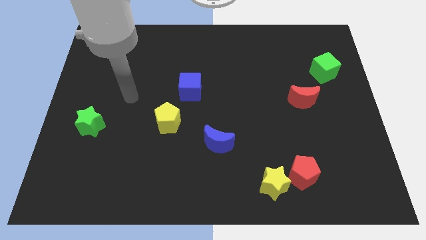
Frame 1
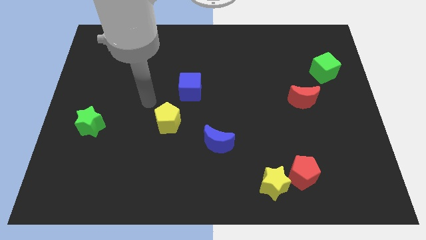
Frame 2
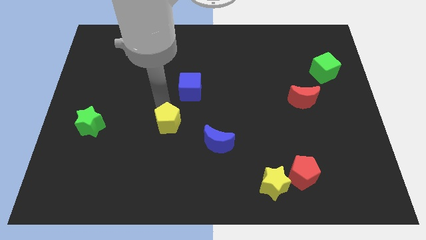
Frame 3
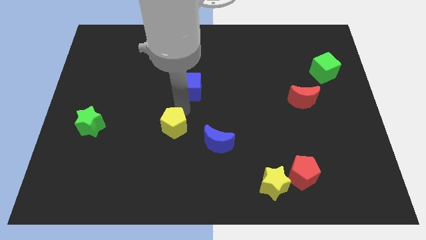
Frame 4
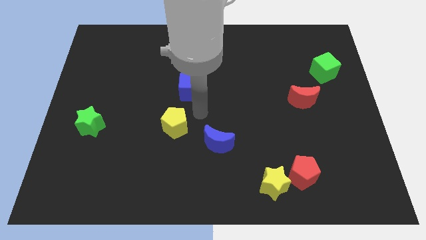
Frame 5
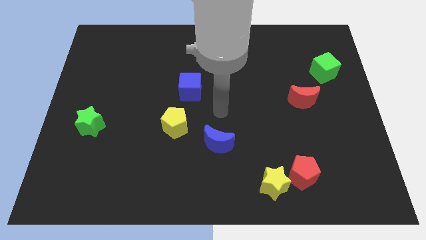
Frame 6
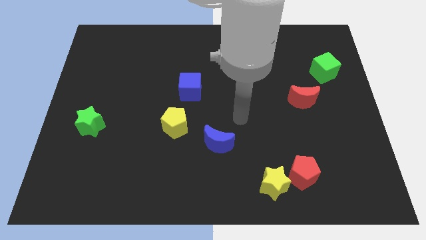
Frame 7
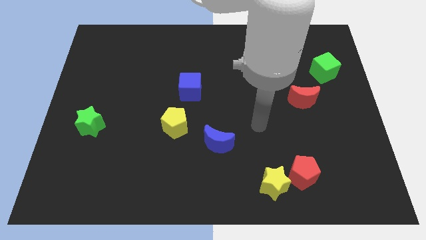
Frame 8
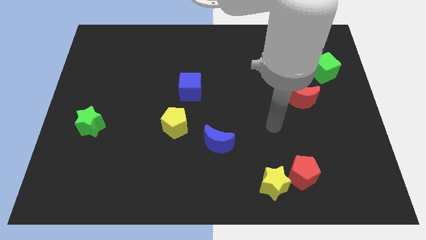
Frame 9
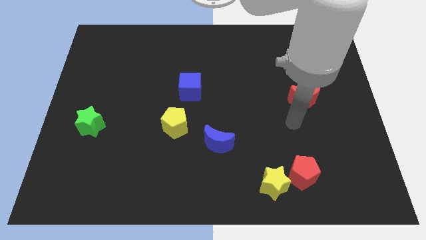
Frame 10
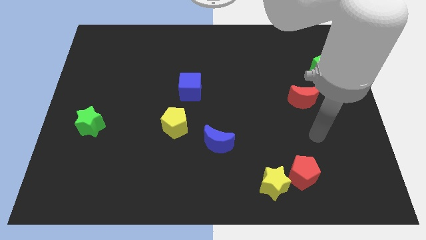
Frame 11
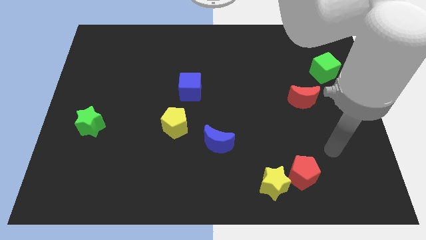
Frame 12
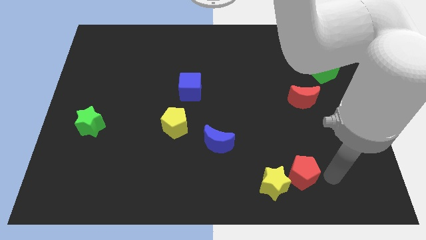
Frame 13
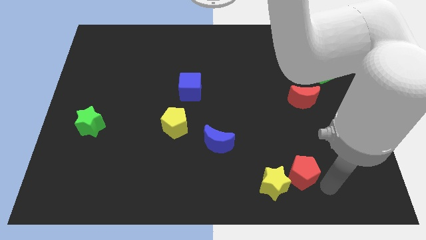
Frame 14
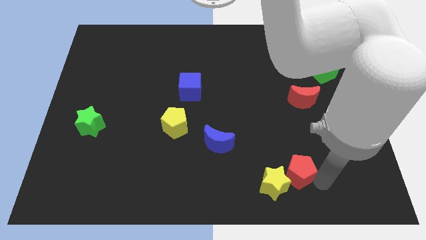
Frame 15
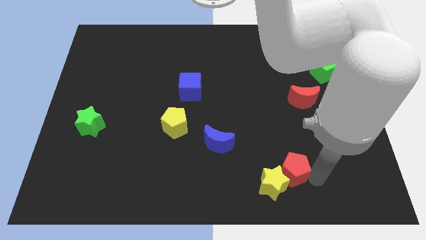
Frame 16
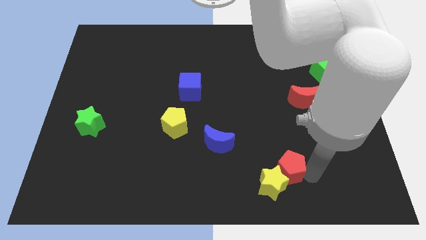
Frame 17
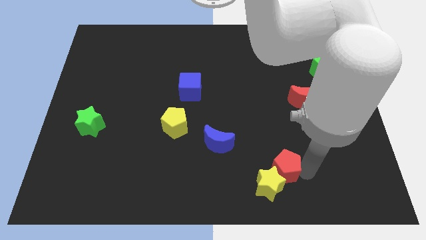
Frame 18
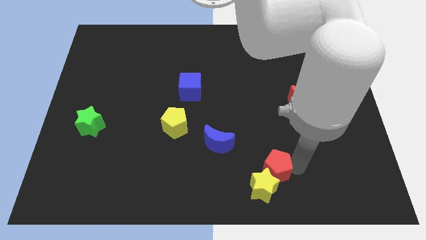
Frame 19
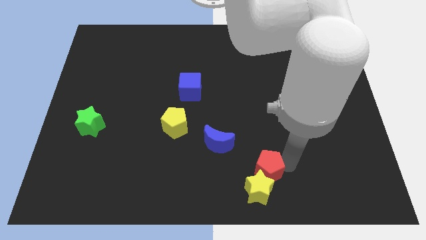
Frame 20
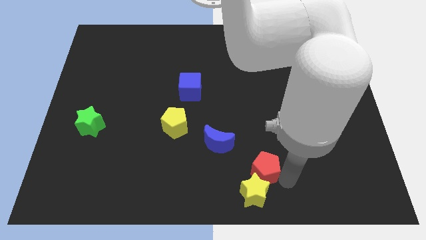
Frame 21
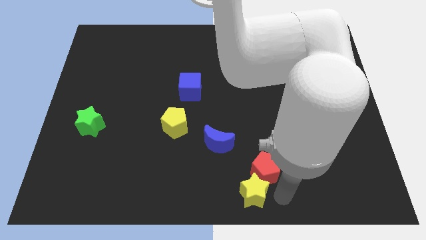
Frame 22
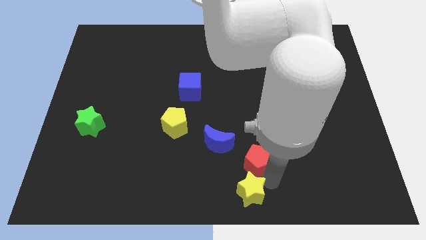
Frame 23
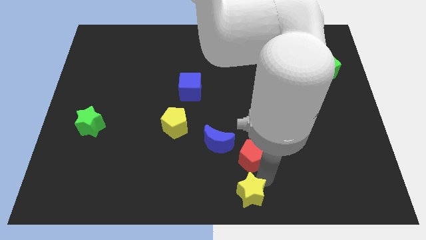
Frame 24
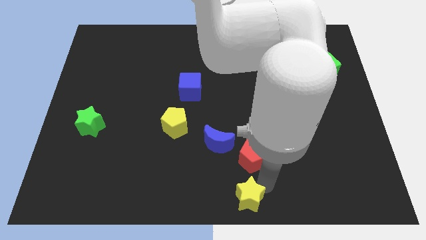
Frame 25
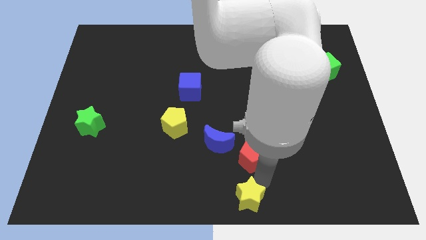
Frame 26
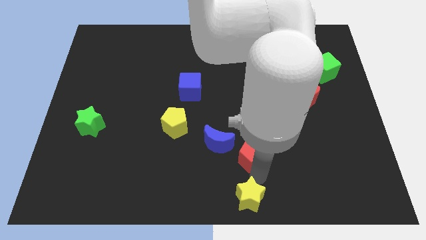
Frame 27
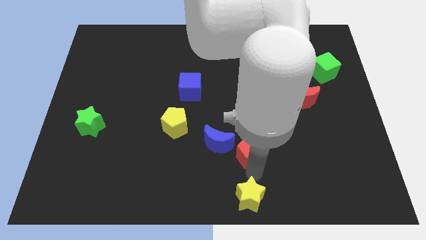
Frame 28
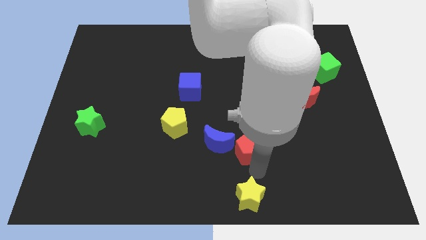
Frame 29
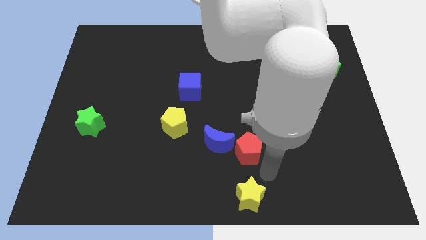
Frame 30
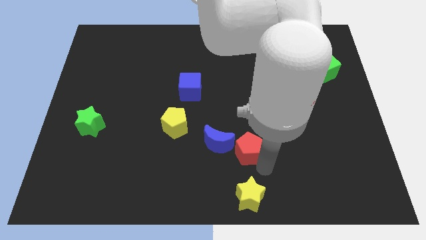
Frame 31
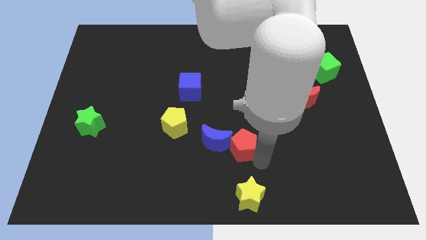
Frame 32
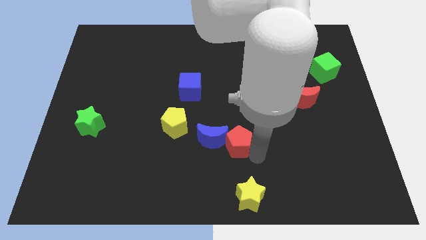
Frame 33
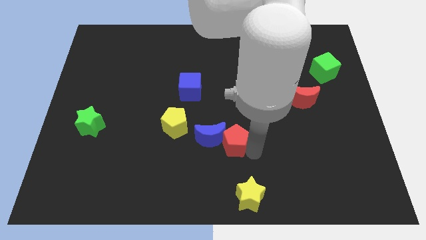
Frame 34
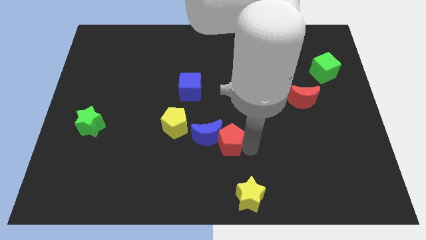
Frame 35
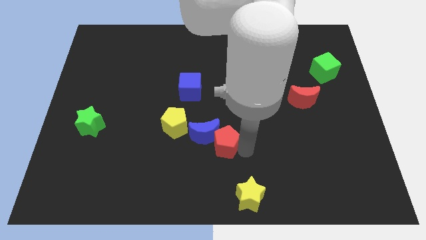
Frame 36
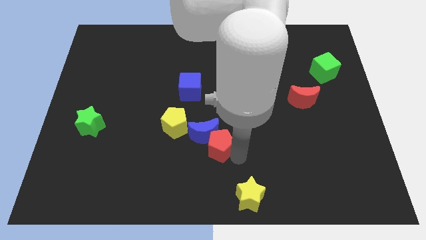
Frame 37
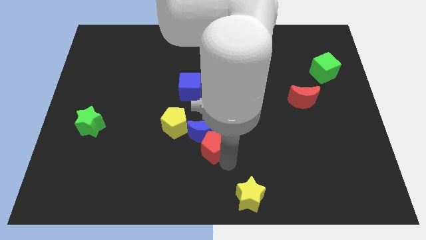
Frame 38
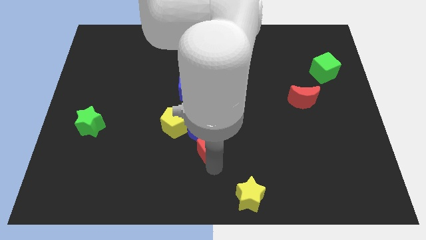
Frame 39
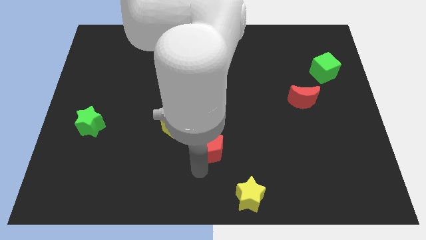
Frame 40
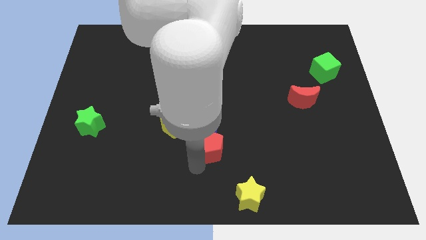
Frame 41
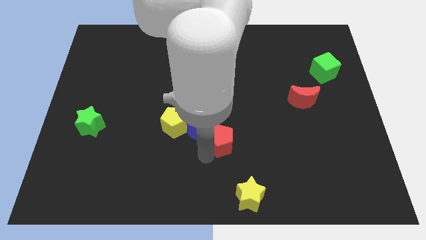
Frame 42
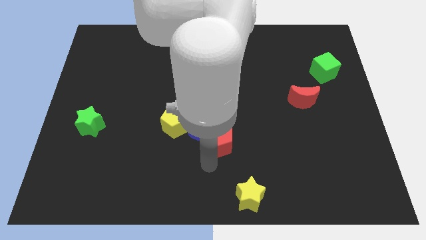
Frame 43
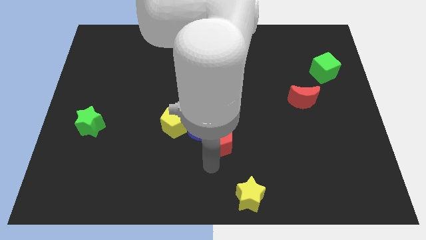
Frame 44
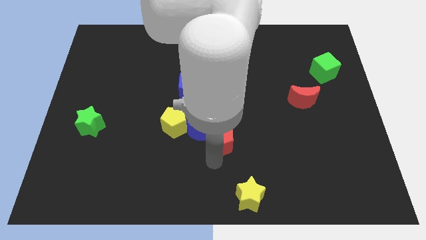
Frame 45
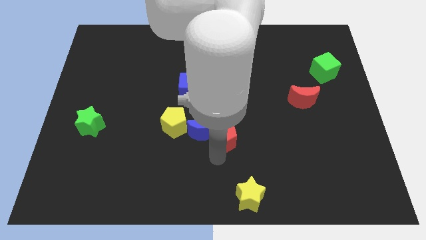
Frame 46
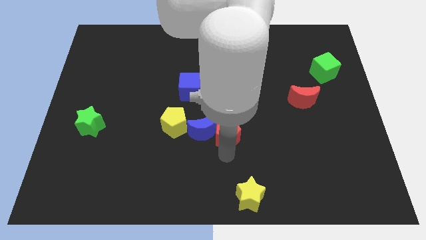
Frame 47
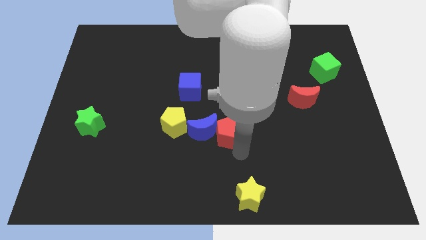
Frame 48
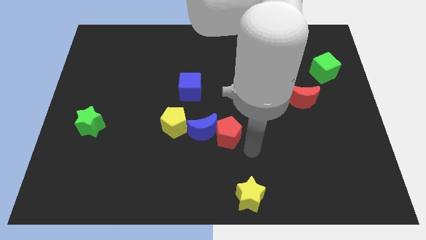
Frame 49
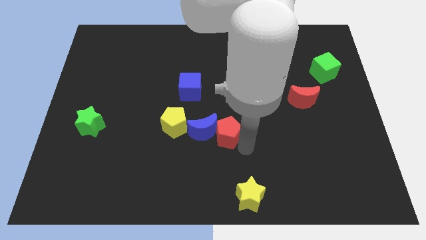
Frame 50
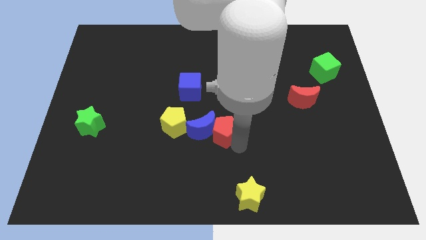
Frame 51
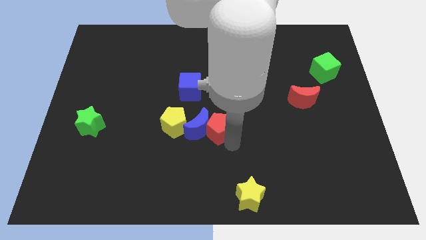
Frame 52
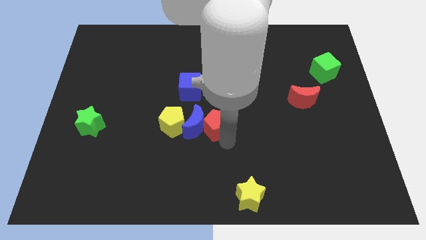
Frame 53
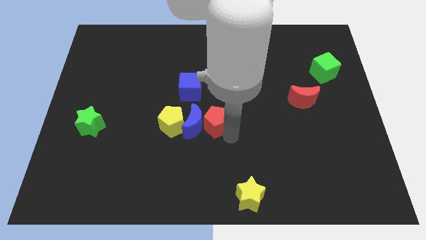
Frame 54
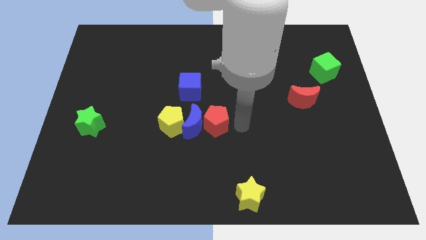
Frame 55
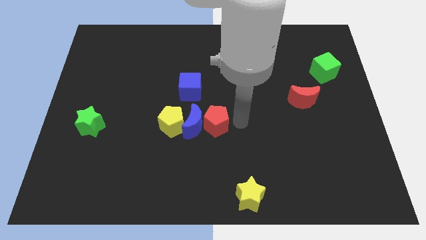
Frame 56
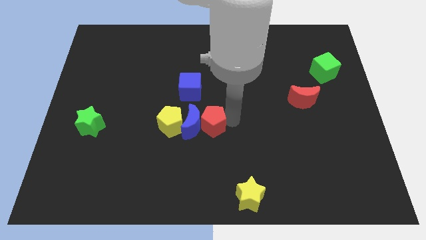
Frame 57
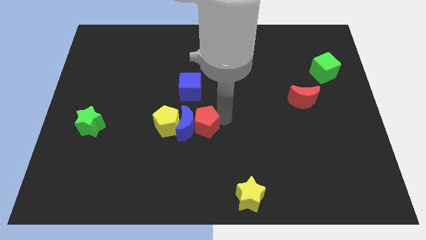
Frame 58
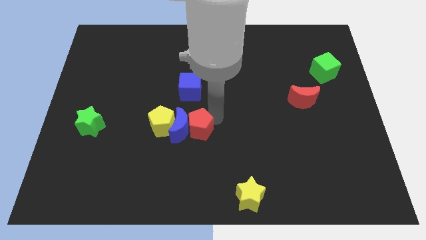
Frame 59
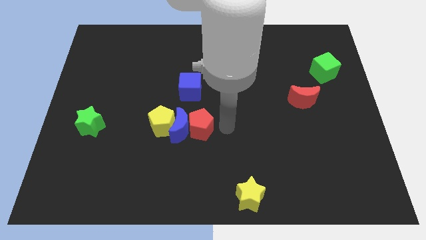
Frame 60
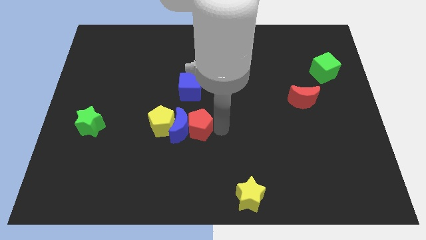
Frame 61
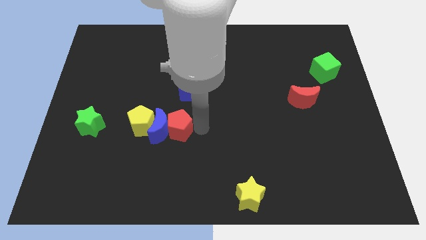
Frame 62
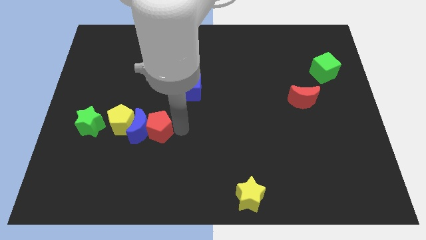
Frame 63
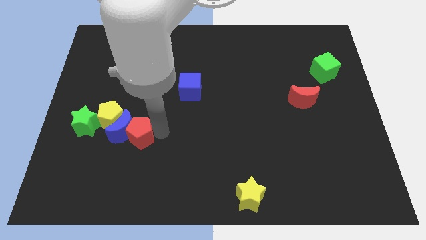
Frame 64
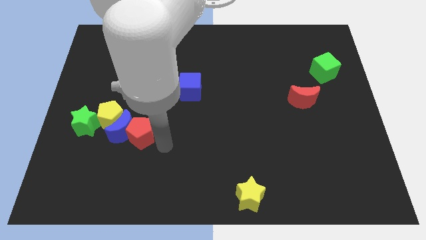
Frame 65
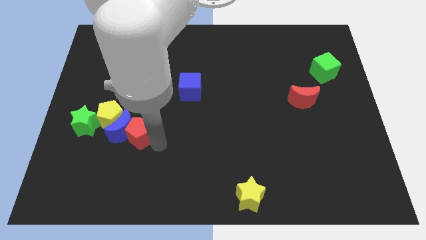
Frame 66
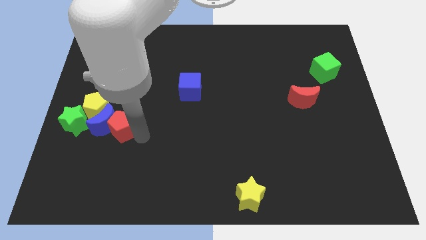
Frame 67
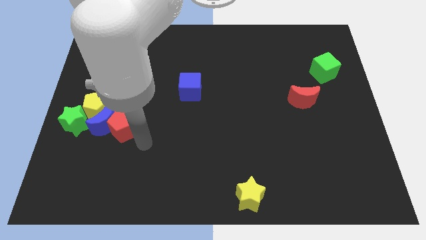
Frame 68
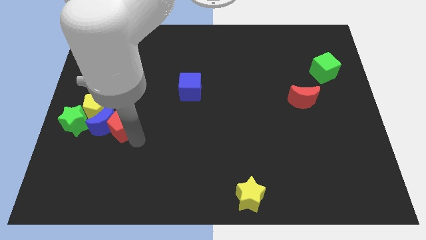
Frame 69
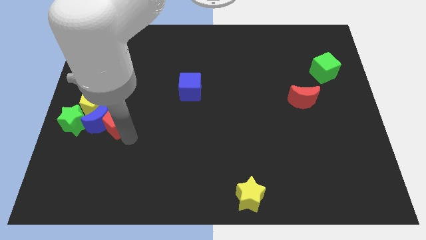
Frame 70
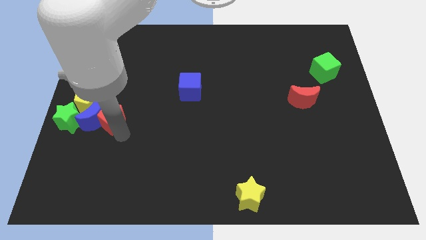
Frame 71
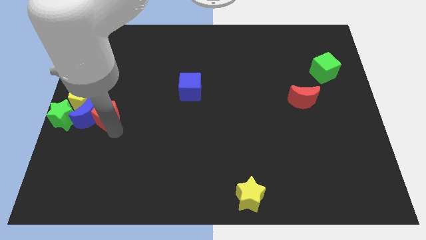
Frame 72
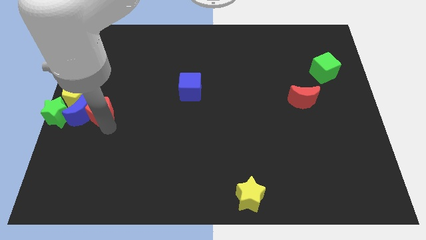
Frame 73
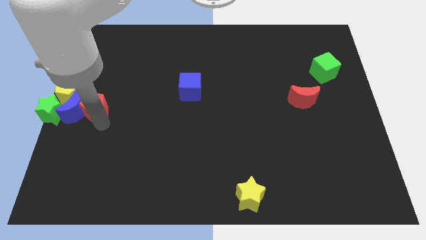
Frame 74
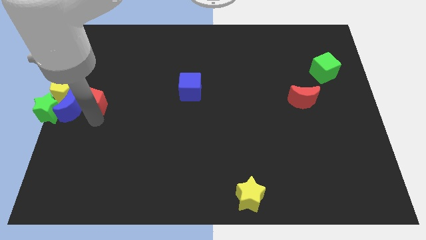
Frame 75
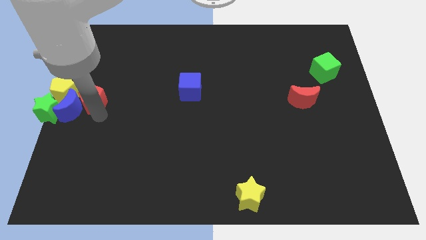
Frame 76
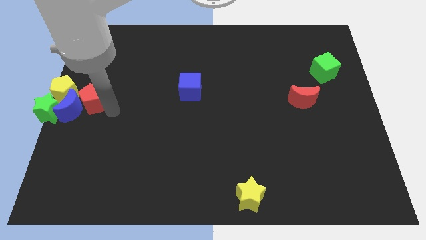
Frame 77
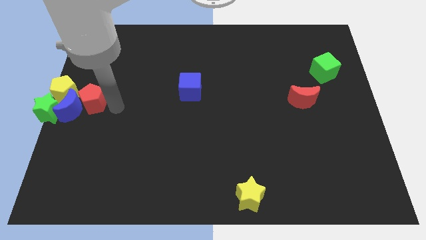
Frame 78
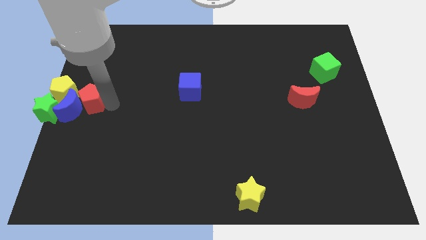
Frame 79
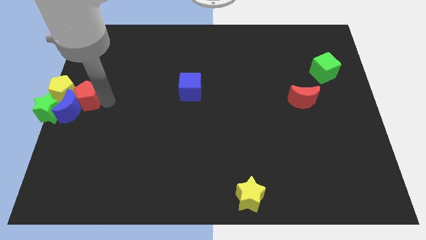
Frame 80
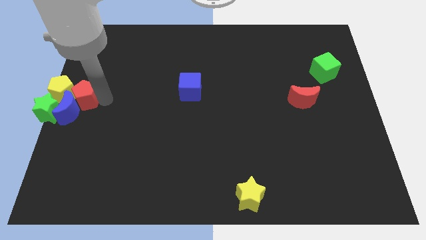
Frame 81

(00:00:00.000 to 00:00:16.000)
put the red pentagon close to the yellow pentagon
